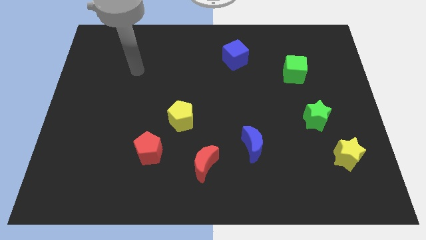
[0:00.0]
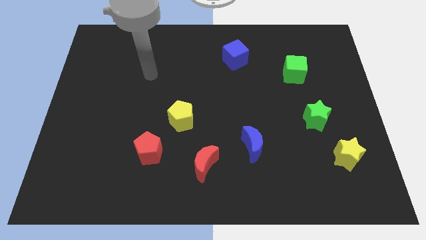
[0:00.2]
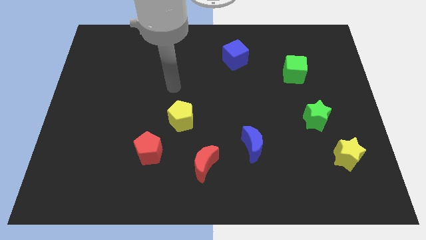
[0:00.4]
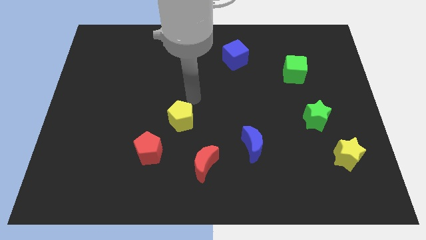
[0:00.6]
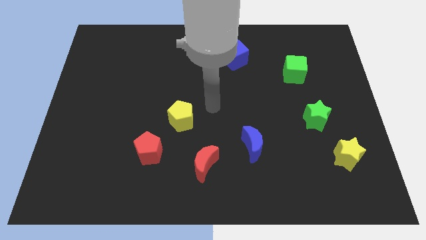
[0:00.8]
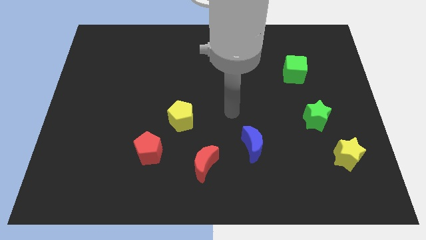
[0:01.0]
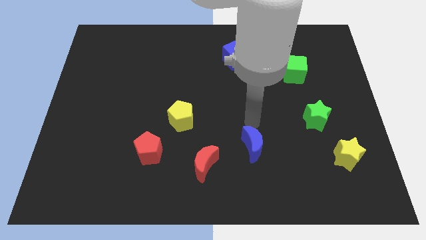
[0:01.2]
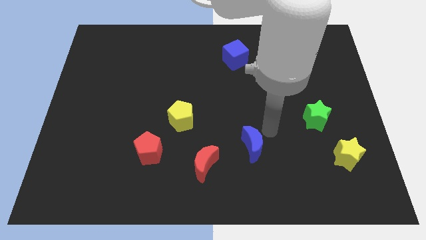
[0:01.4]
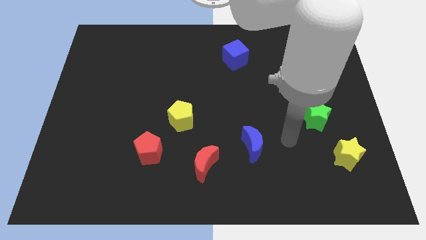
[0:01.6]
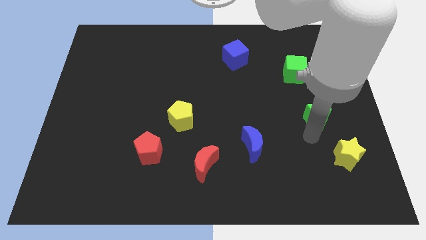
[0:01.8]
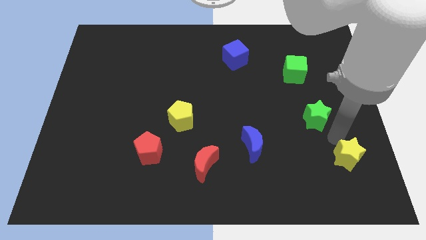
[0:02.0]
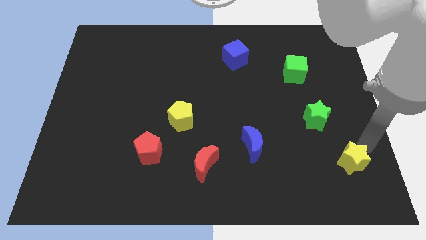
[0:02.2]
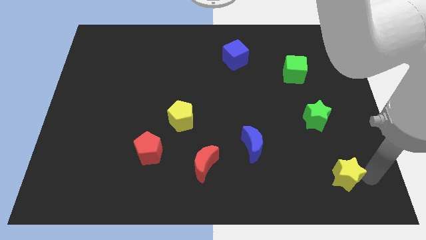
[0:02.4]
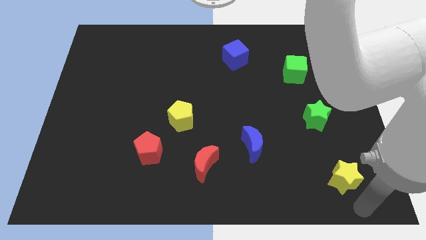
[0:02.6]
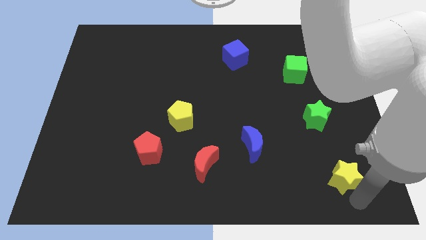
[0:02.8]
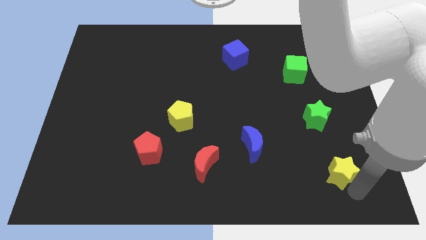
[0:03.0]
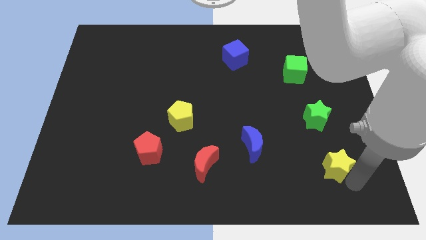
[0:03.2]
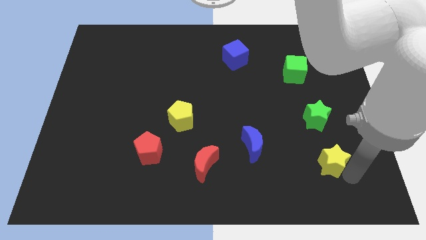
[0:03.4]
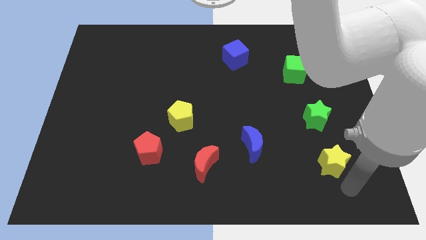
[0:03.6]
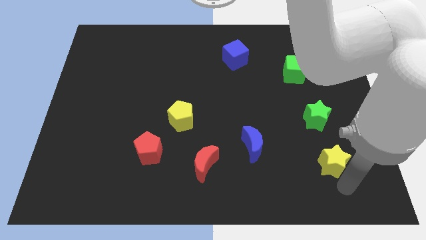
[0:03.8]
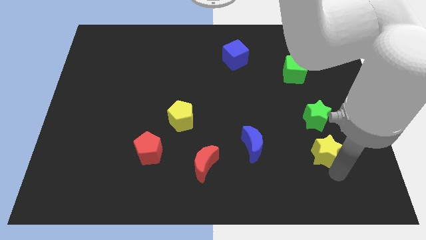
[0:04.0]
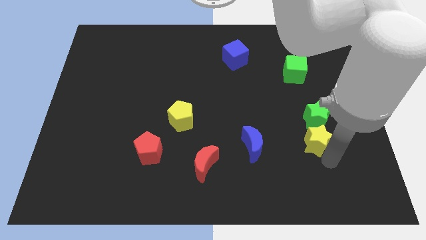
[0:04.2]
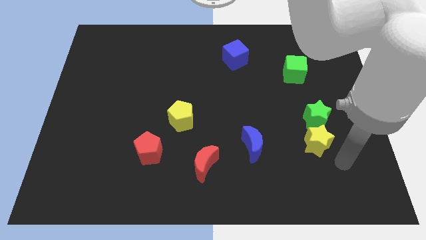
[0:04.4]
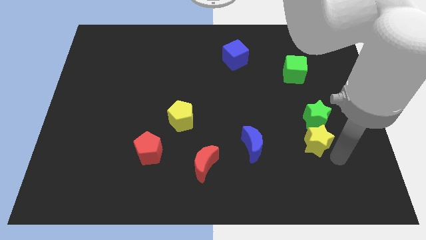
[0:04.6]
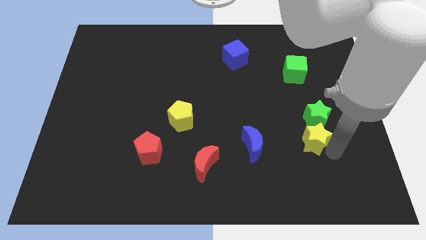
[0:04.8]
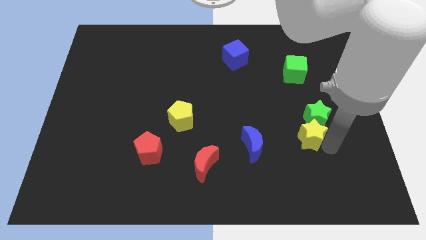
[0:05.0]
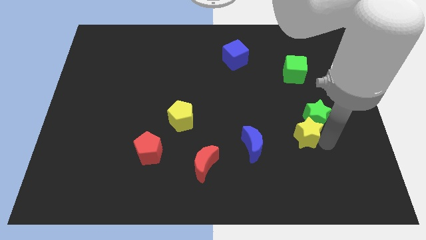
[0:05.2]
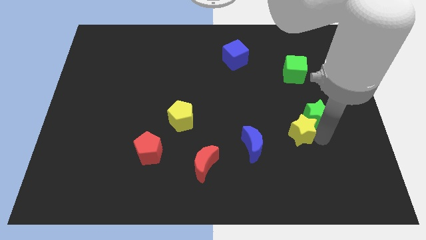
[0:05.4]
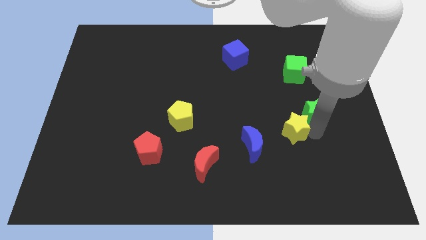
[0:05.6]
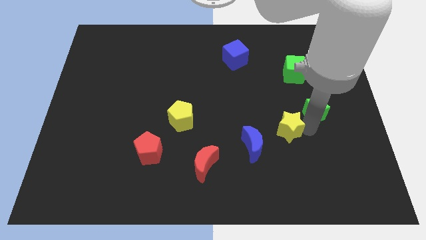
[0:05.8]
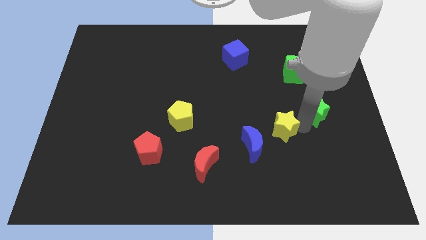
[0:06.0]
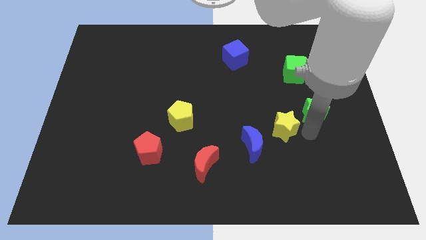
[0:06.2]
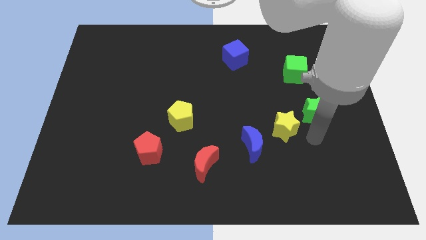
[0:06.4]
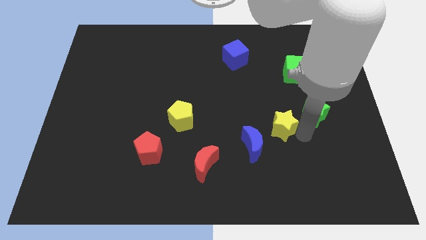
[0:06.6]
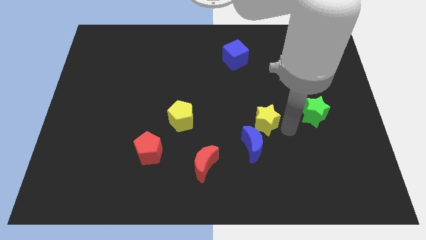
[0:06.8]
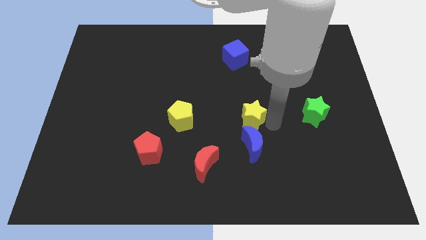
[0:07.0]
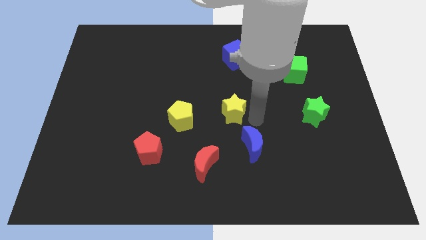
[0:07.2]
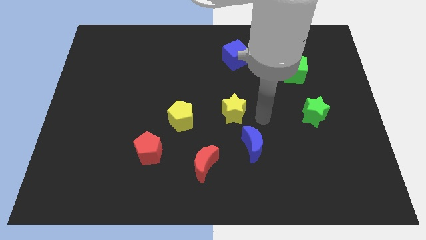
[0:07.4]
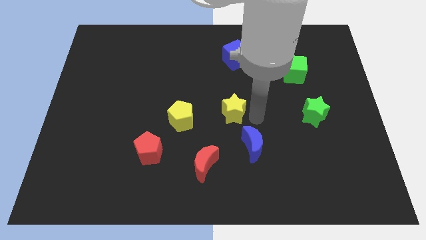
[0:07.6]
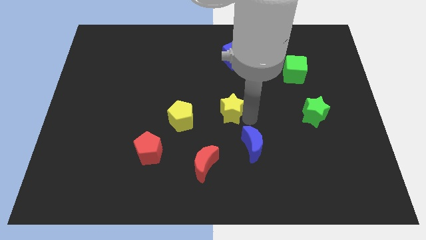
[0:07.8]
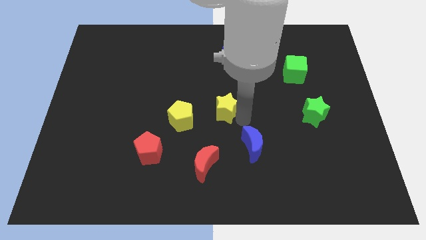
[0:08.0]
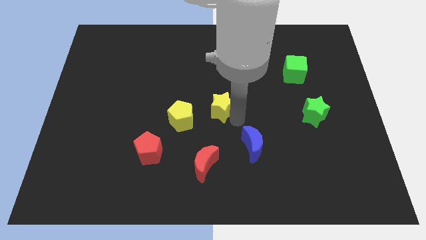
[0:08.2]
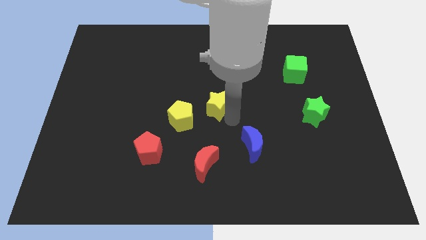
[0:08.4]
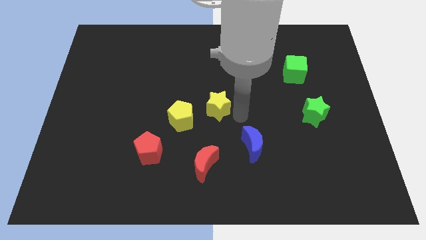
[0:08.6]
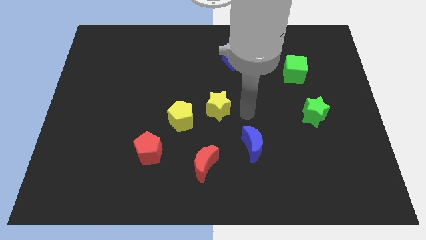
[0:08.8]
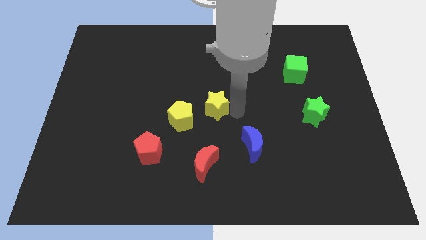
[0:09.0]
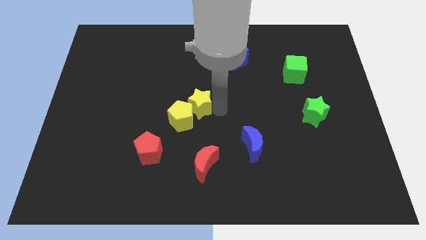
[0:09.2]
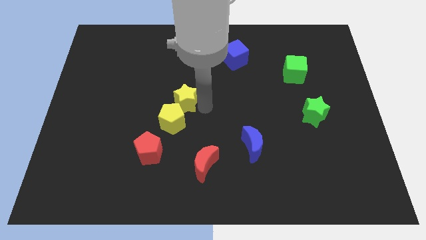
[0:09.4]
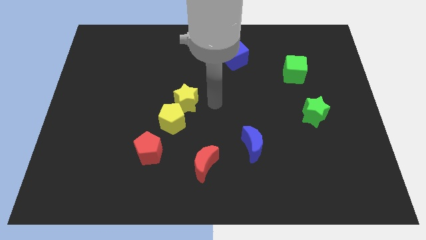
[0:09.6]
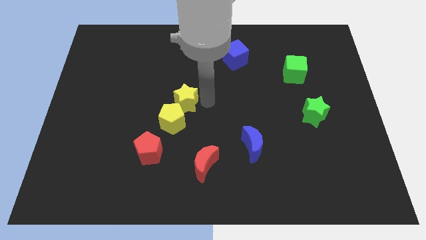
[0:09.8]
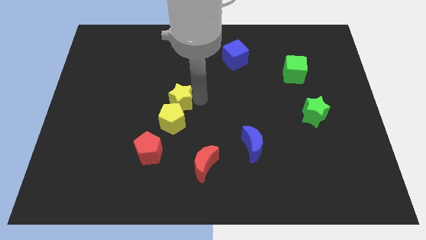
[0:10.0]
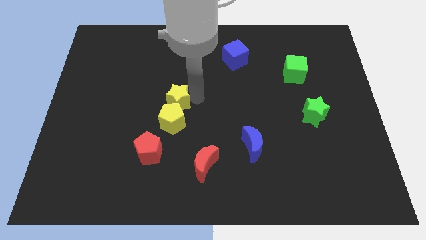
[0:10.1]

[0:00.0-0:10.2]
move the yellow star to the top left of the yellow pentagon

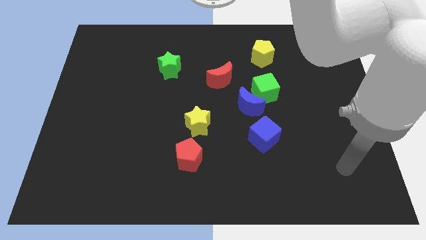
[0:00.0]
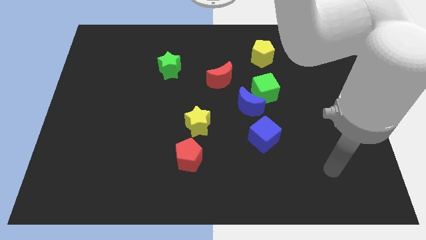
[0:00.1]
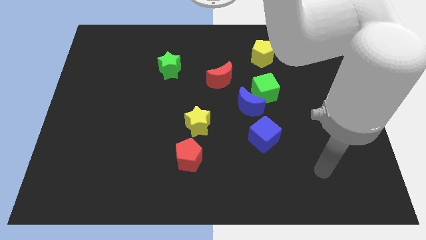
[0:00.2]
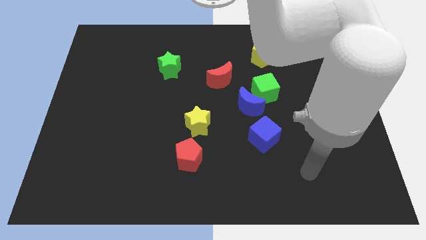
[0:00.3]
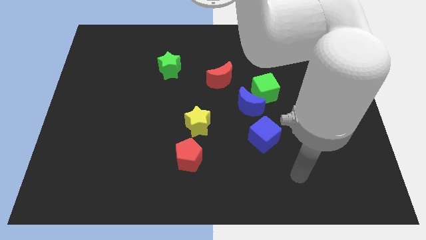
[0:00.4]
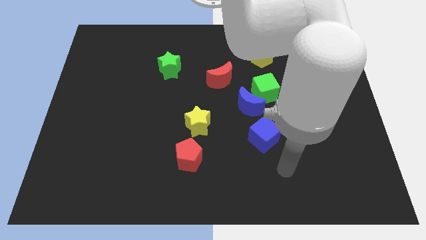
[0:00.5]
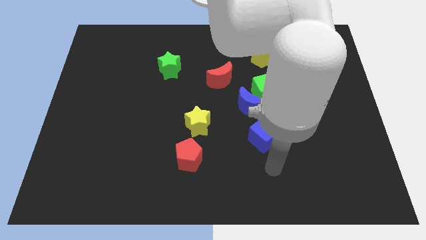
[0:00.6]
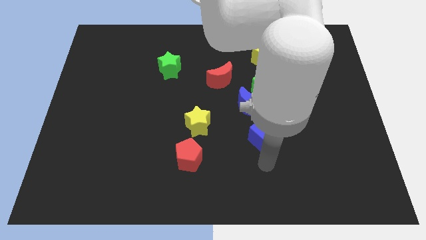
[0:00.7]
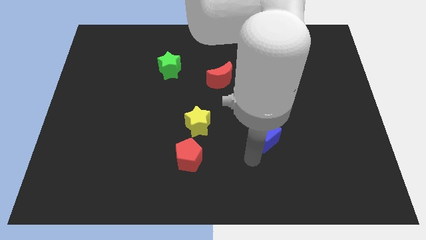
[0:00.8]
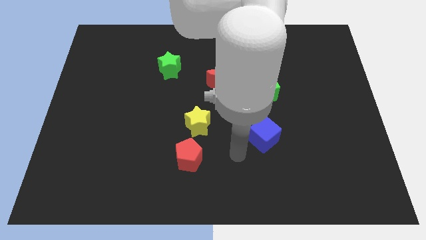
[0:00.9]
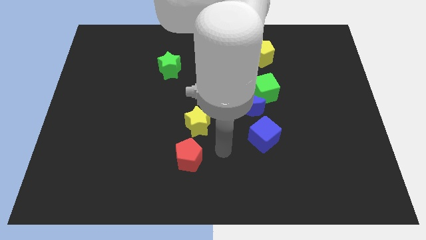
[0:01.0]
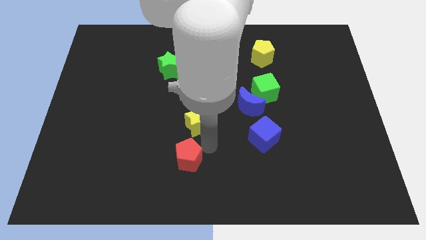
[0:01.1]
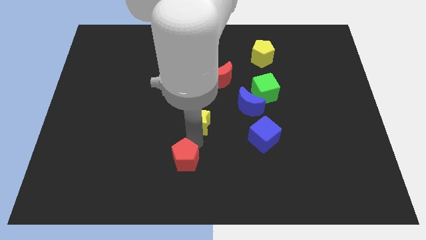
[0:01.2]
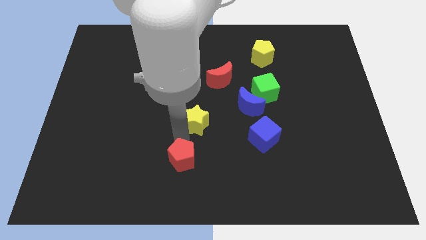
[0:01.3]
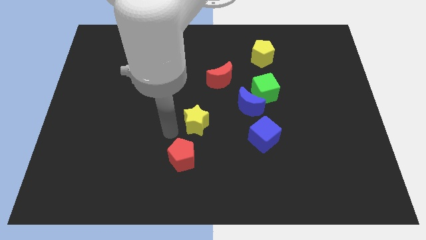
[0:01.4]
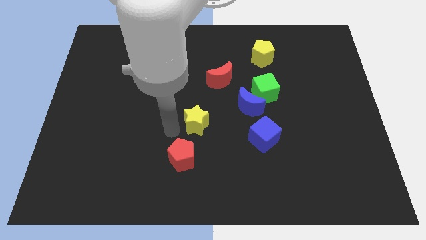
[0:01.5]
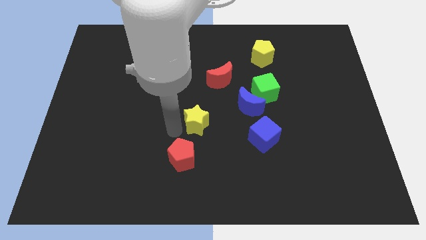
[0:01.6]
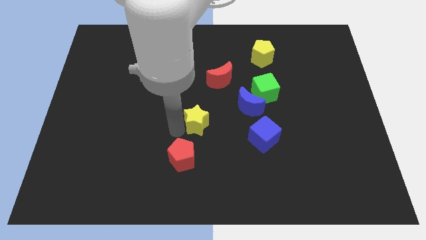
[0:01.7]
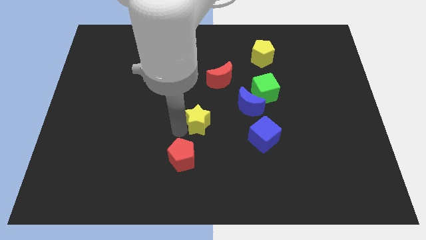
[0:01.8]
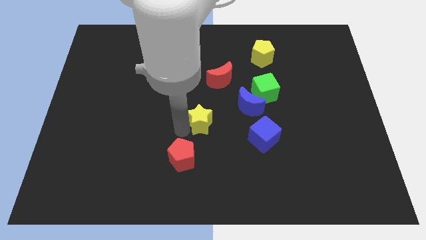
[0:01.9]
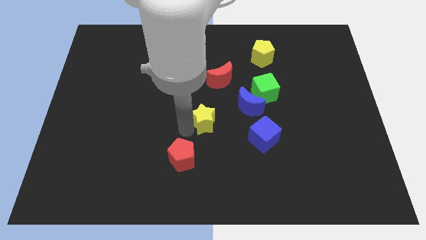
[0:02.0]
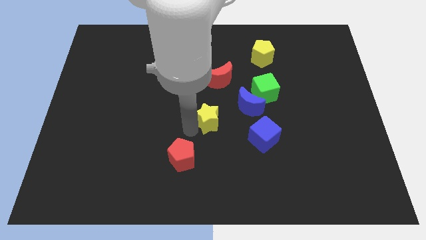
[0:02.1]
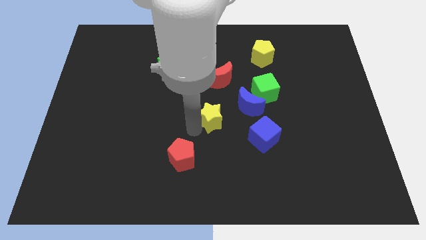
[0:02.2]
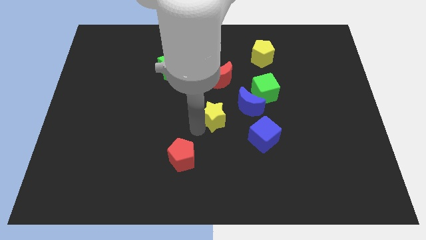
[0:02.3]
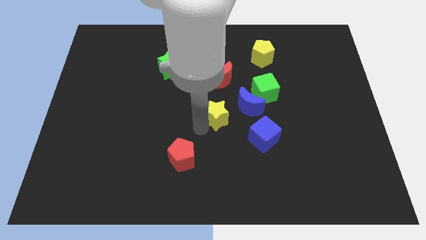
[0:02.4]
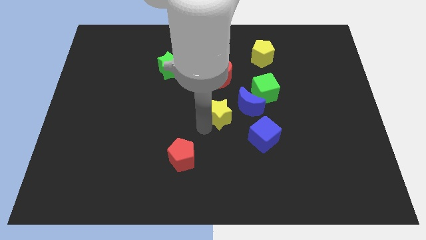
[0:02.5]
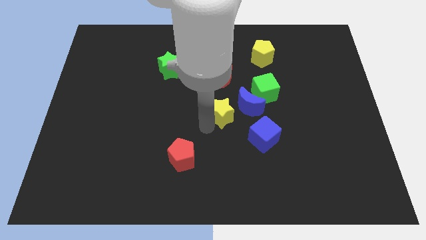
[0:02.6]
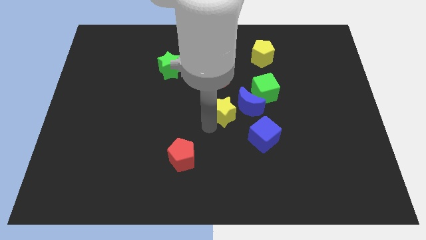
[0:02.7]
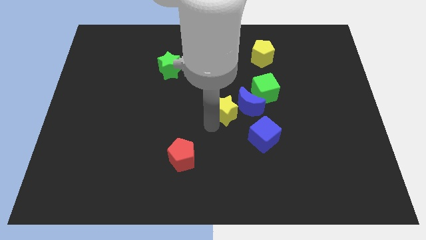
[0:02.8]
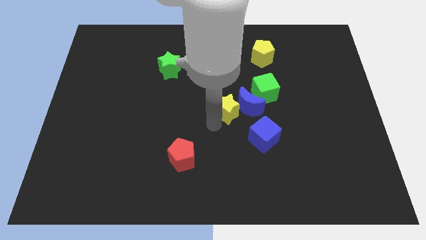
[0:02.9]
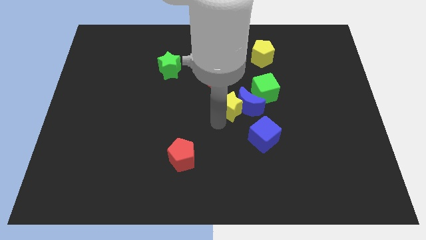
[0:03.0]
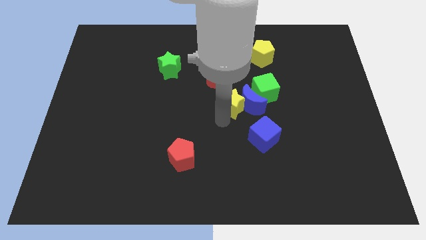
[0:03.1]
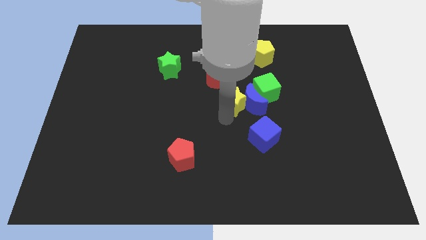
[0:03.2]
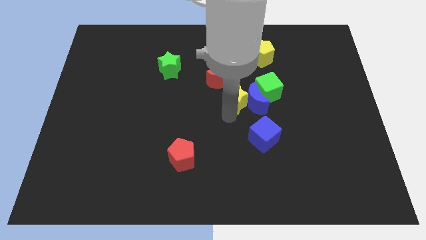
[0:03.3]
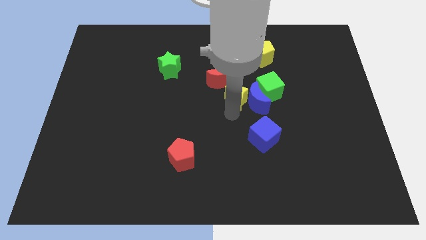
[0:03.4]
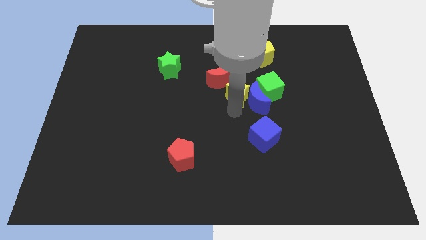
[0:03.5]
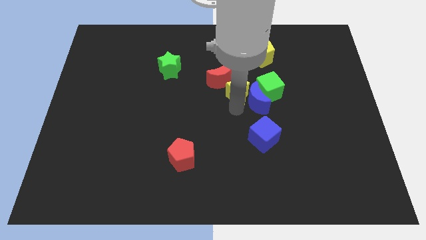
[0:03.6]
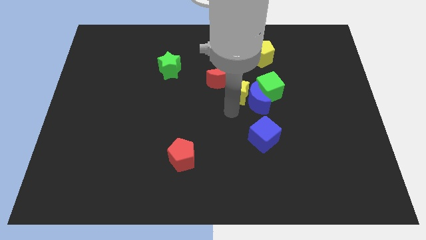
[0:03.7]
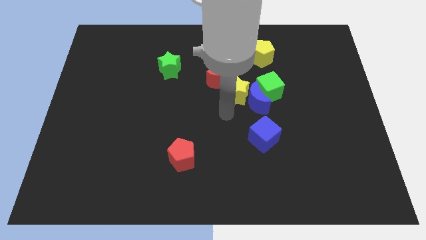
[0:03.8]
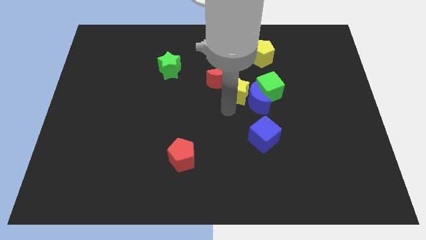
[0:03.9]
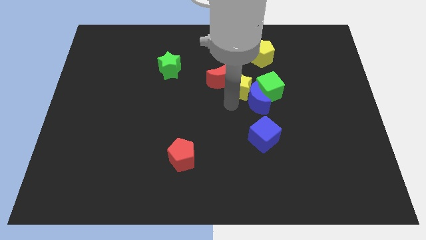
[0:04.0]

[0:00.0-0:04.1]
put the yellow star to the top left side of the green cube
